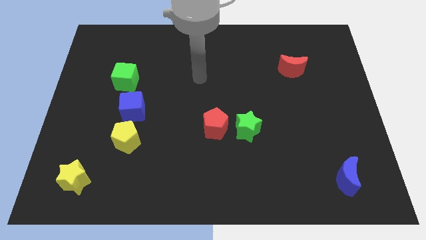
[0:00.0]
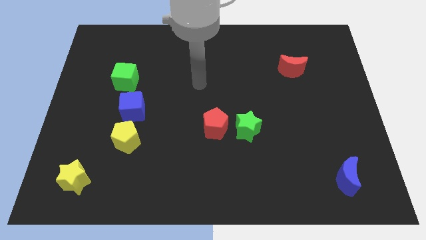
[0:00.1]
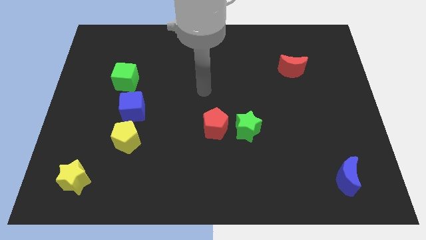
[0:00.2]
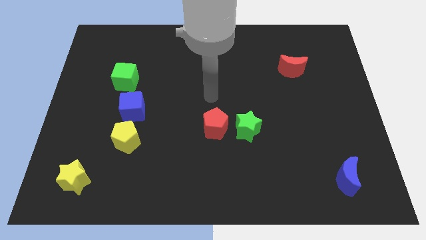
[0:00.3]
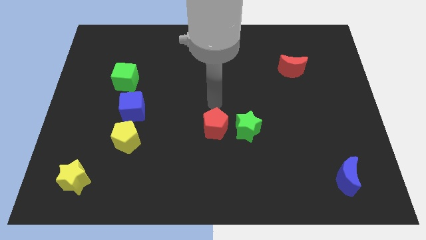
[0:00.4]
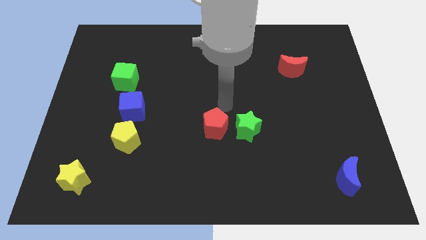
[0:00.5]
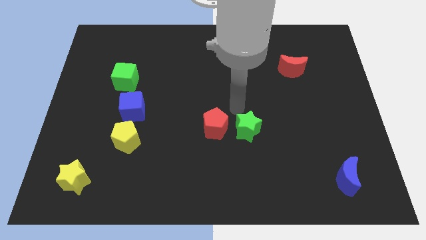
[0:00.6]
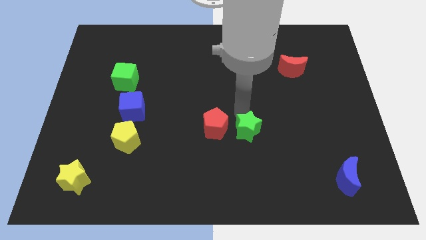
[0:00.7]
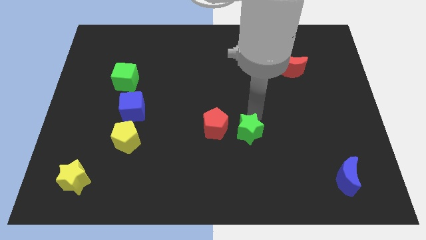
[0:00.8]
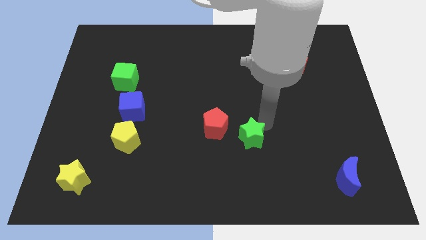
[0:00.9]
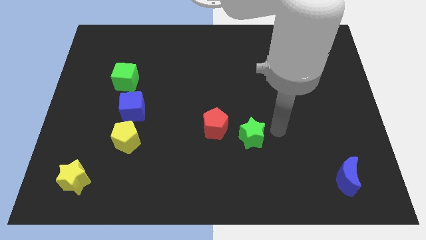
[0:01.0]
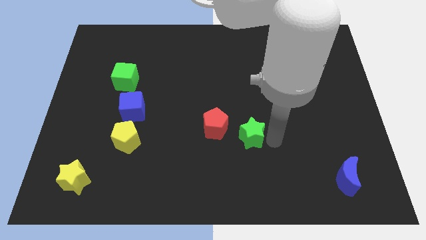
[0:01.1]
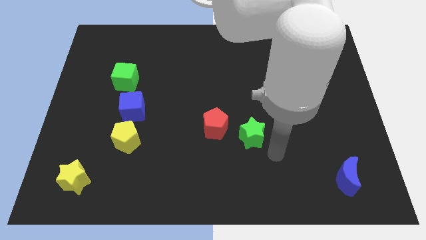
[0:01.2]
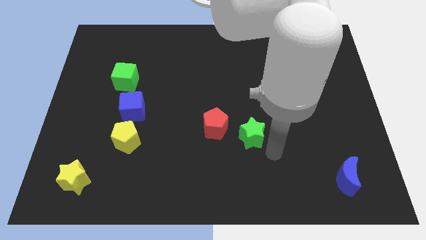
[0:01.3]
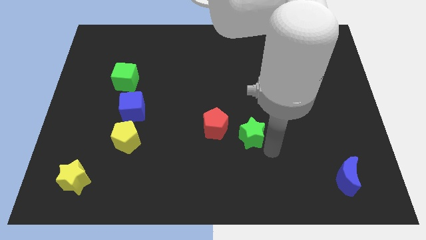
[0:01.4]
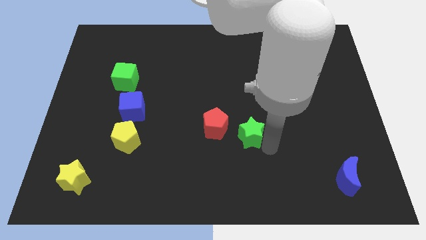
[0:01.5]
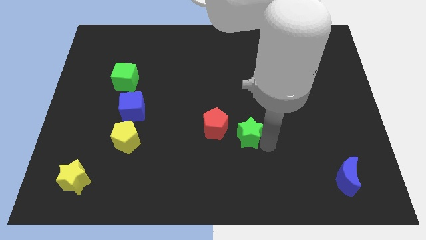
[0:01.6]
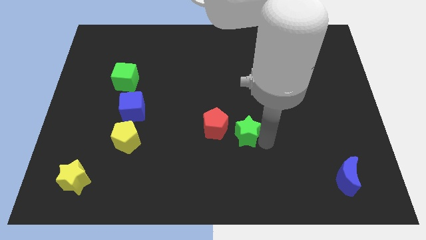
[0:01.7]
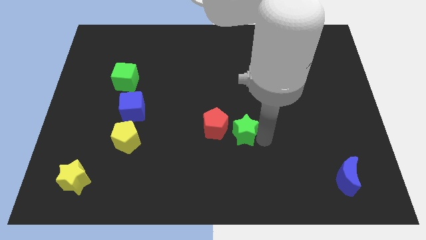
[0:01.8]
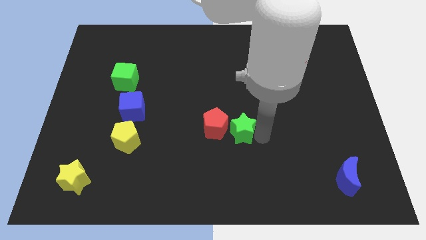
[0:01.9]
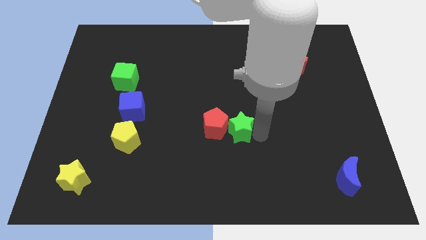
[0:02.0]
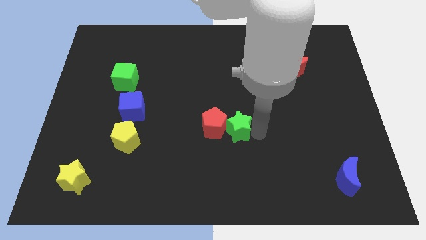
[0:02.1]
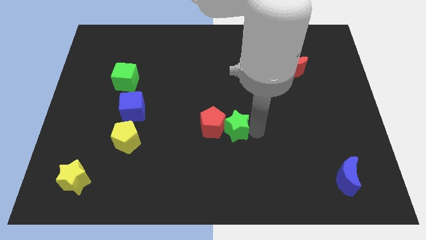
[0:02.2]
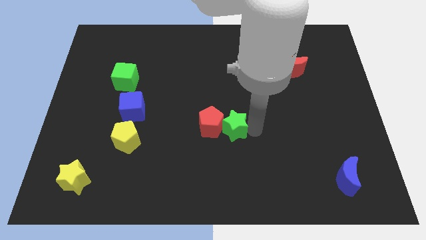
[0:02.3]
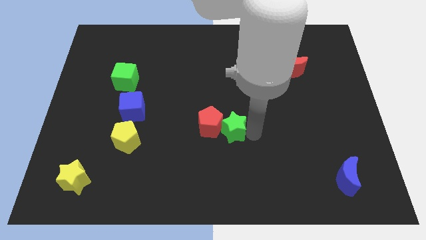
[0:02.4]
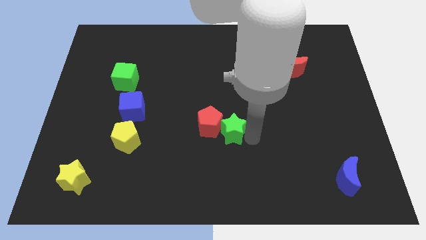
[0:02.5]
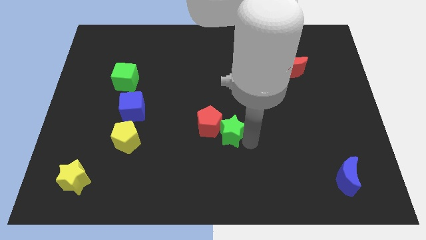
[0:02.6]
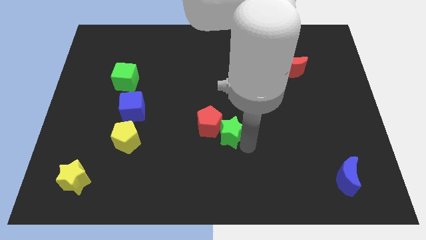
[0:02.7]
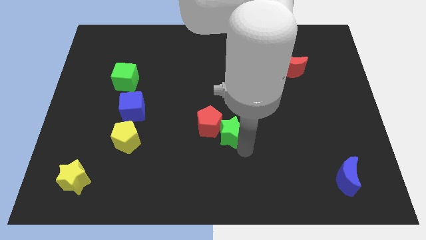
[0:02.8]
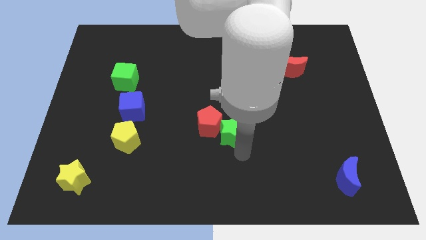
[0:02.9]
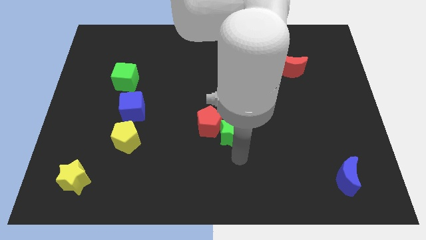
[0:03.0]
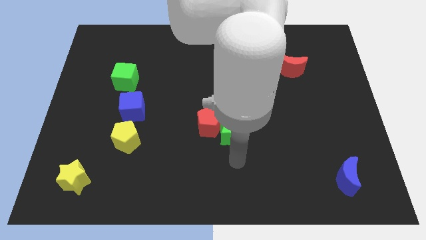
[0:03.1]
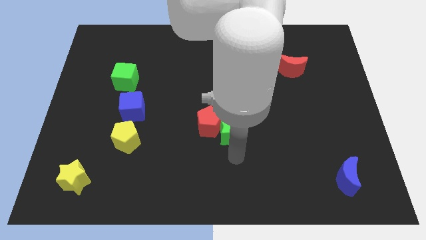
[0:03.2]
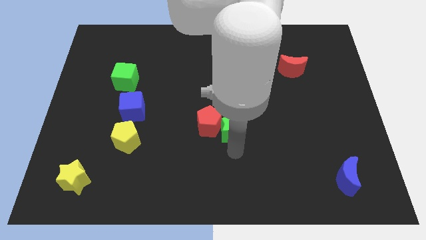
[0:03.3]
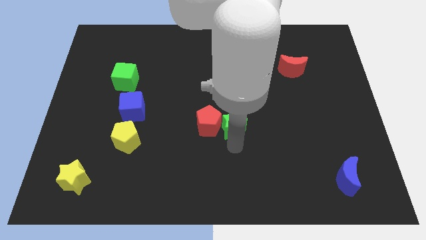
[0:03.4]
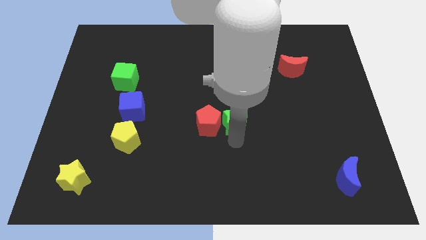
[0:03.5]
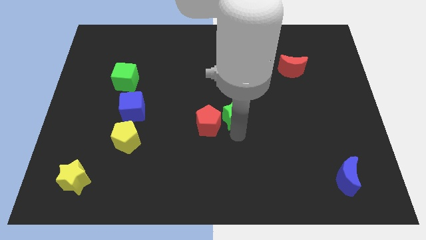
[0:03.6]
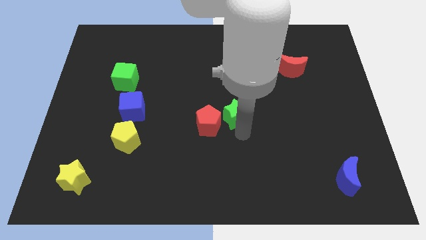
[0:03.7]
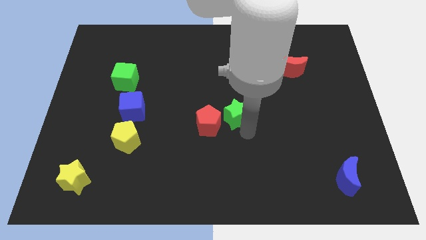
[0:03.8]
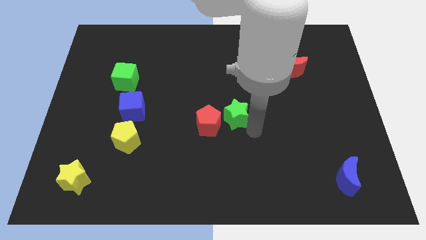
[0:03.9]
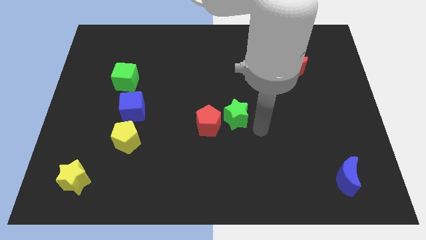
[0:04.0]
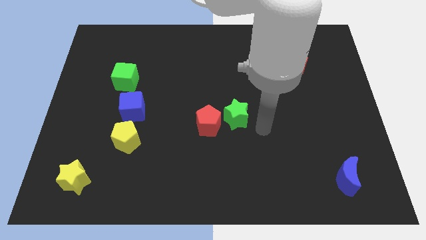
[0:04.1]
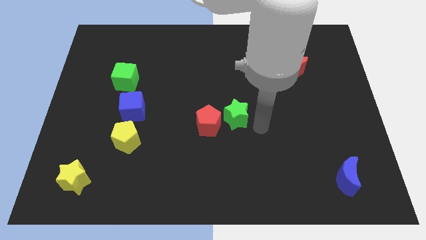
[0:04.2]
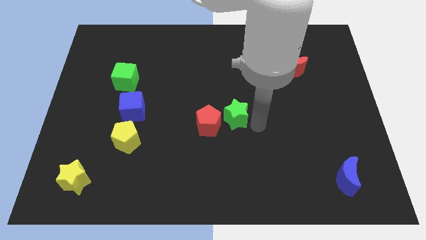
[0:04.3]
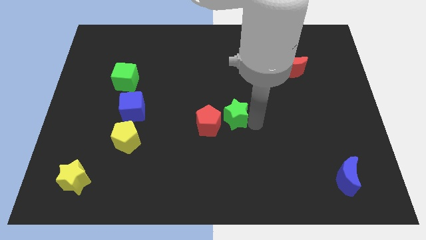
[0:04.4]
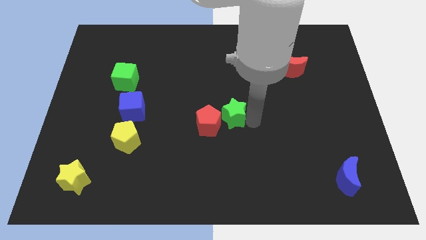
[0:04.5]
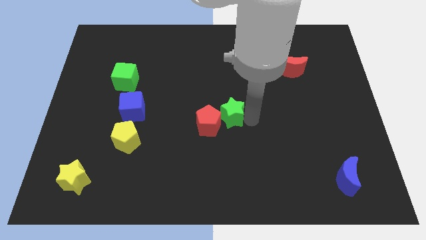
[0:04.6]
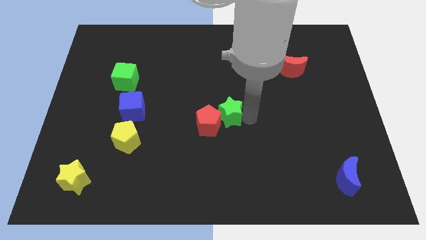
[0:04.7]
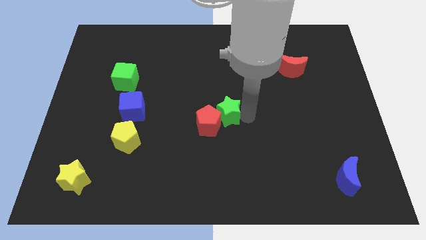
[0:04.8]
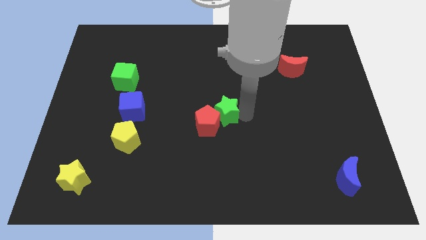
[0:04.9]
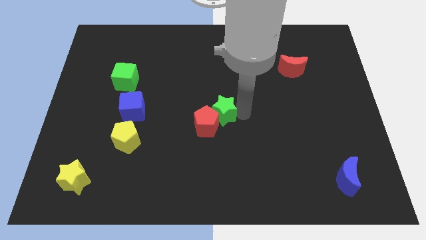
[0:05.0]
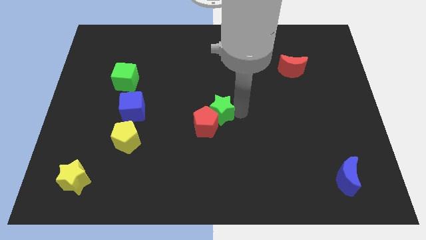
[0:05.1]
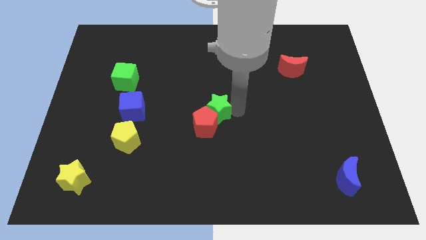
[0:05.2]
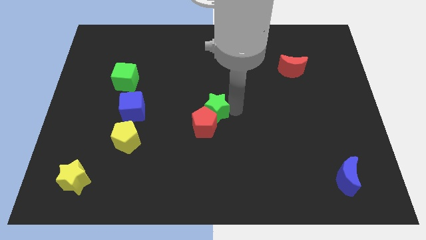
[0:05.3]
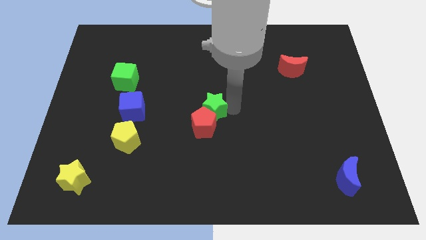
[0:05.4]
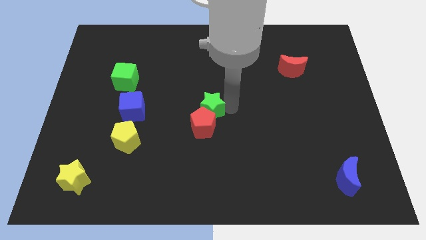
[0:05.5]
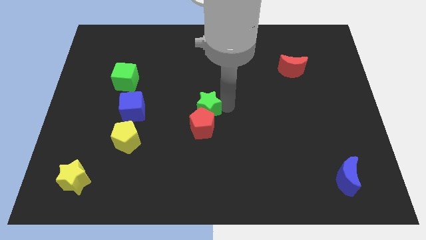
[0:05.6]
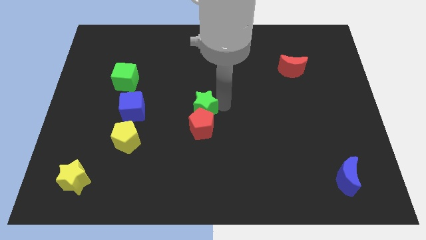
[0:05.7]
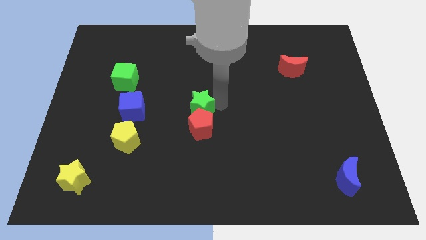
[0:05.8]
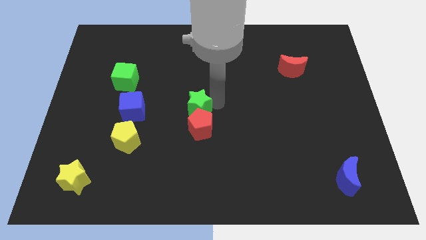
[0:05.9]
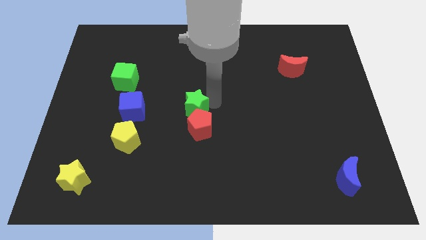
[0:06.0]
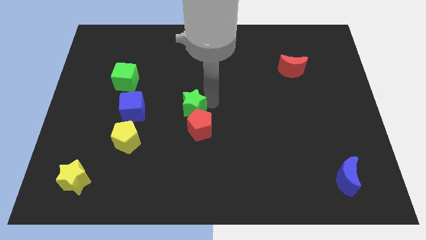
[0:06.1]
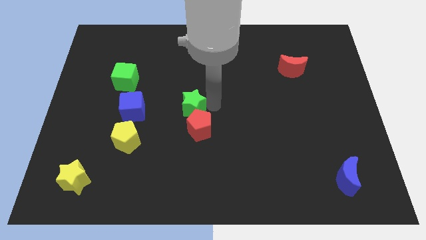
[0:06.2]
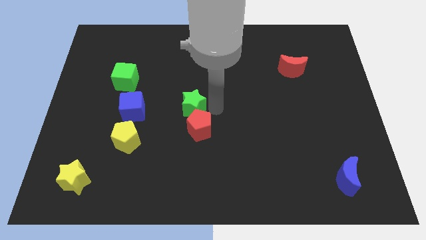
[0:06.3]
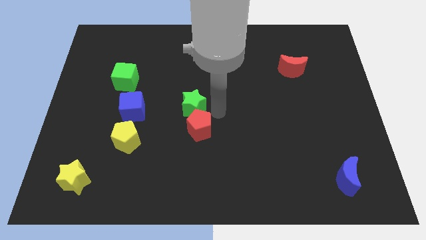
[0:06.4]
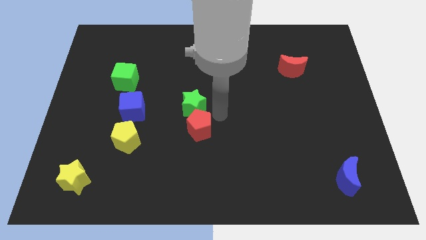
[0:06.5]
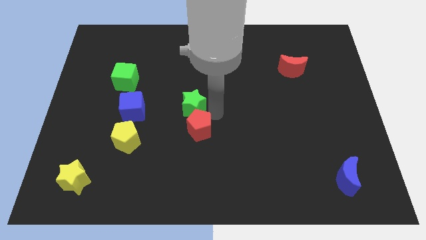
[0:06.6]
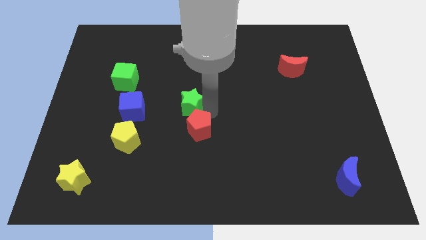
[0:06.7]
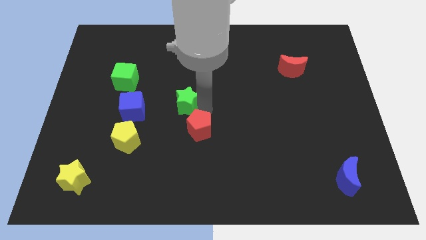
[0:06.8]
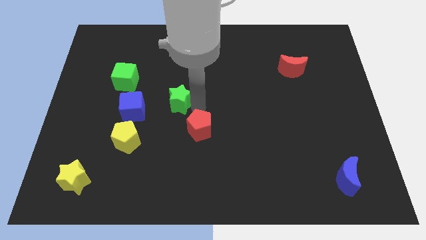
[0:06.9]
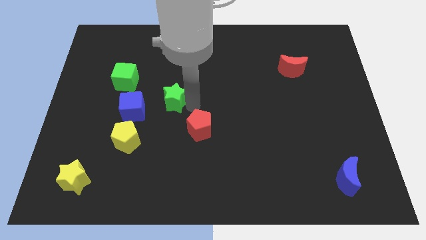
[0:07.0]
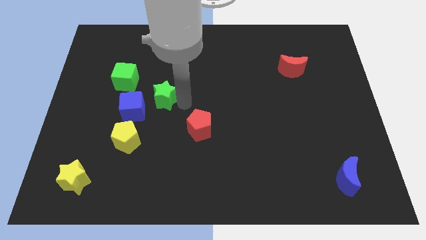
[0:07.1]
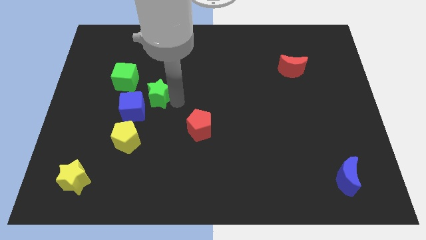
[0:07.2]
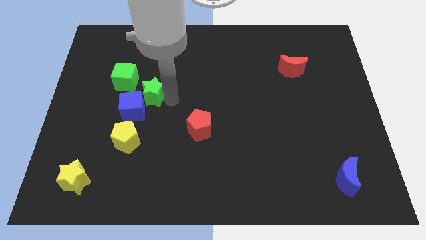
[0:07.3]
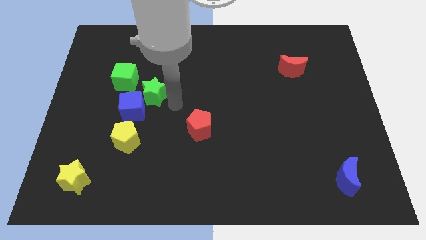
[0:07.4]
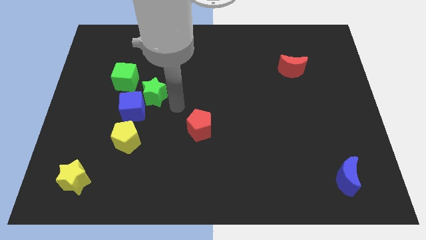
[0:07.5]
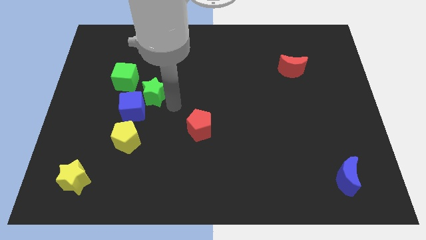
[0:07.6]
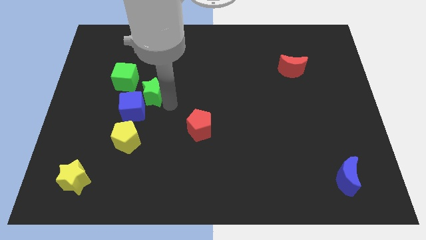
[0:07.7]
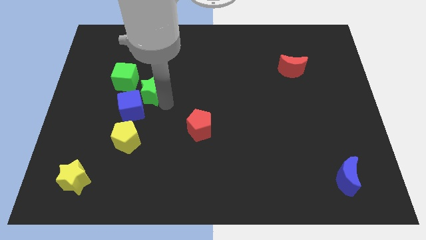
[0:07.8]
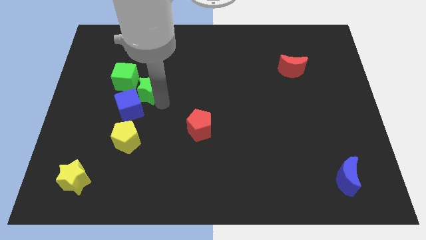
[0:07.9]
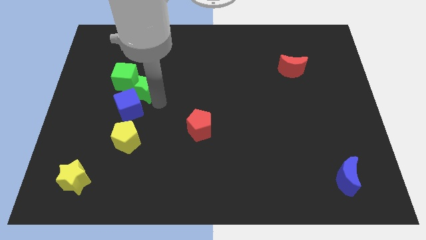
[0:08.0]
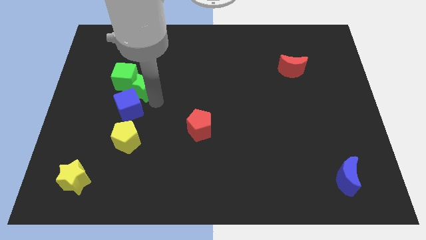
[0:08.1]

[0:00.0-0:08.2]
slide the green star next to the green cube
